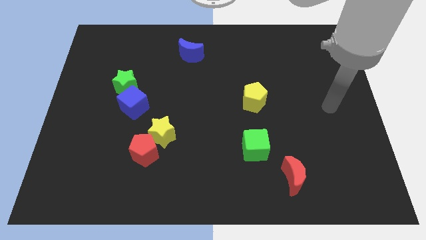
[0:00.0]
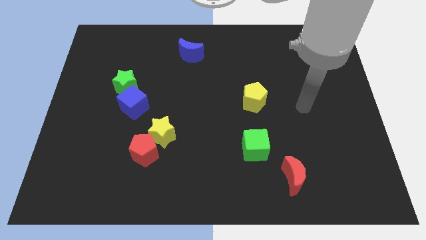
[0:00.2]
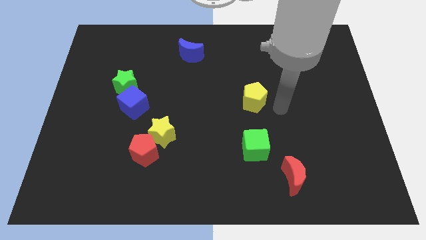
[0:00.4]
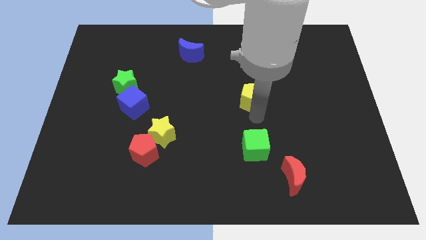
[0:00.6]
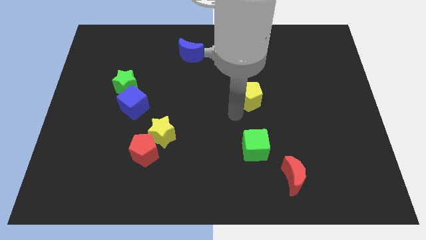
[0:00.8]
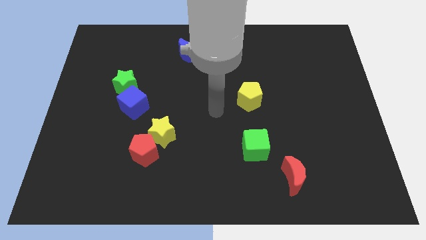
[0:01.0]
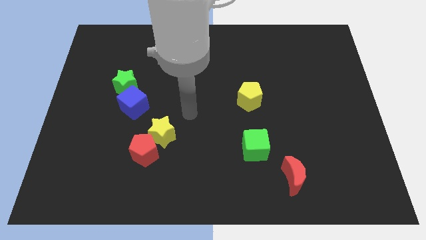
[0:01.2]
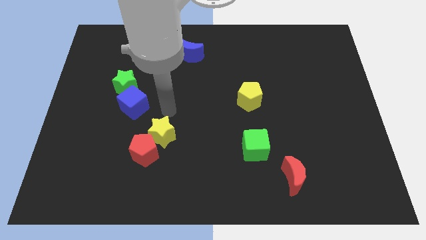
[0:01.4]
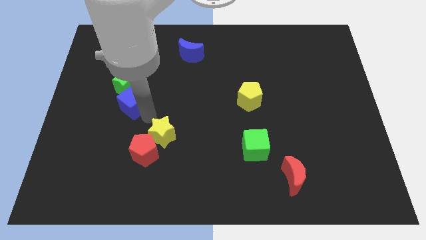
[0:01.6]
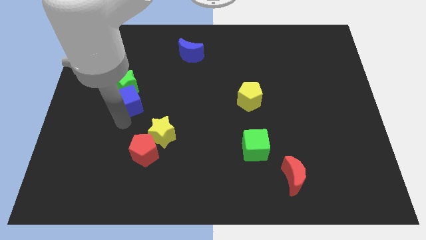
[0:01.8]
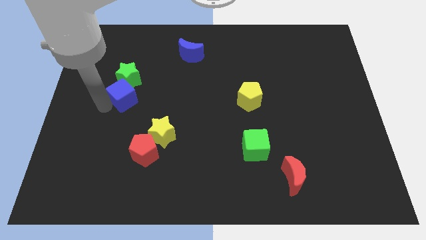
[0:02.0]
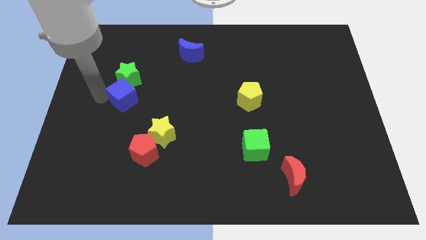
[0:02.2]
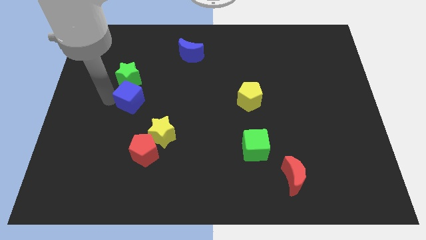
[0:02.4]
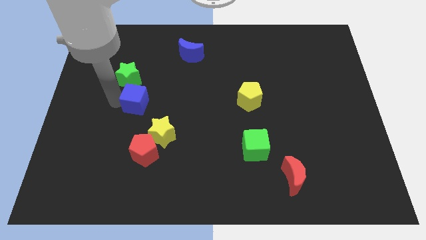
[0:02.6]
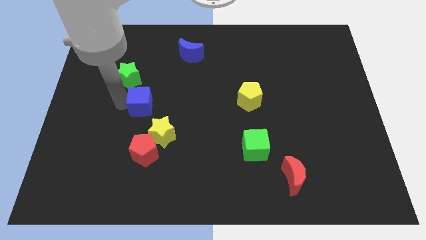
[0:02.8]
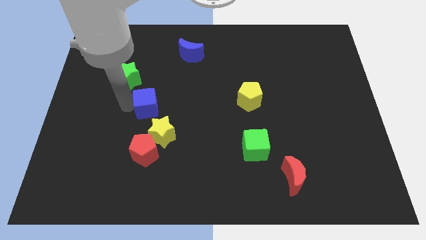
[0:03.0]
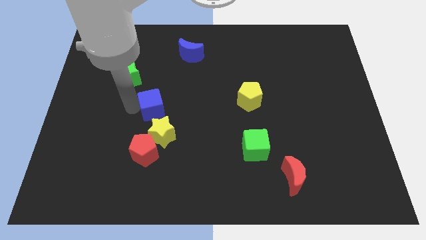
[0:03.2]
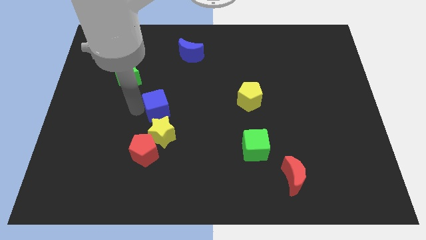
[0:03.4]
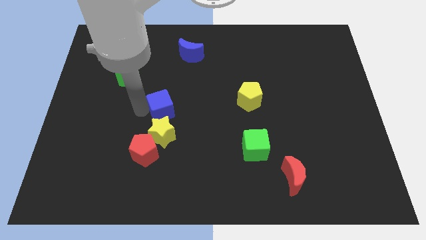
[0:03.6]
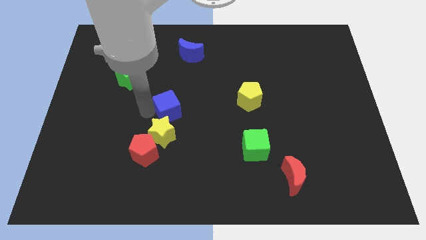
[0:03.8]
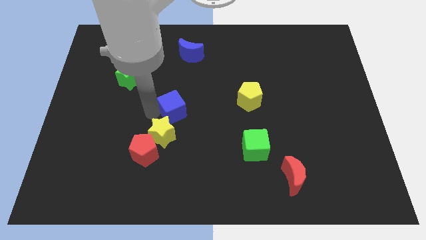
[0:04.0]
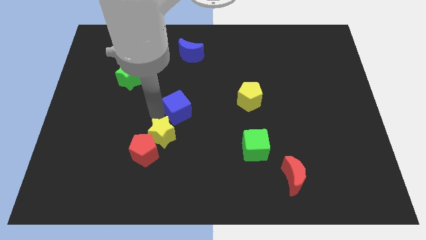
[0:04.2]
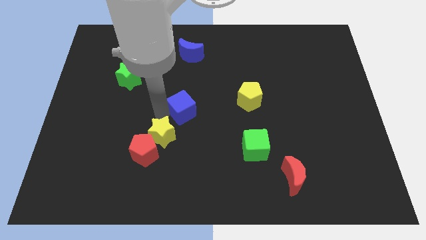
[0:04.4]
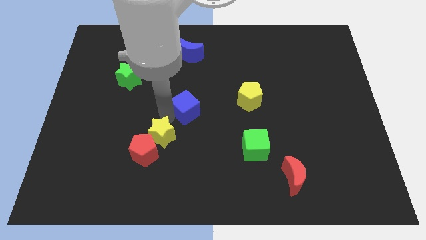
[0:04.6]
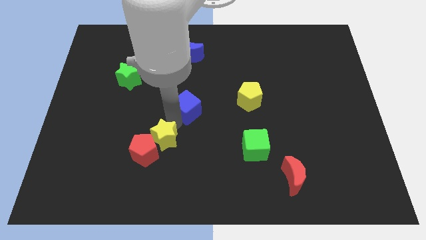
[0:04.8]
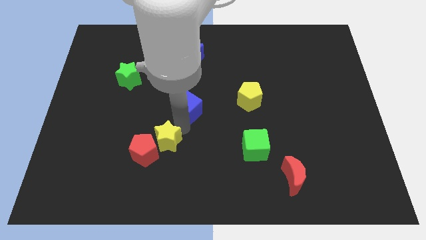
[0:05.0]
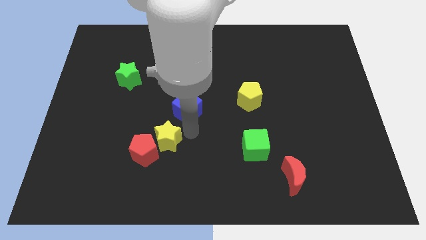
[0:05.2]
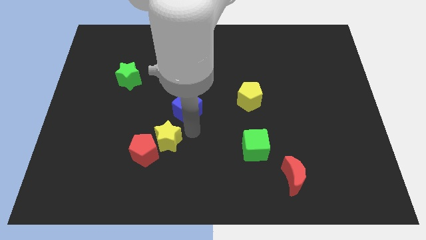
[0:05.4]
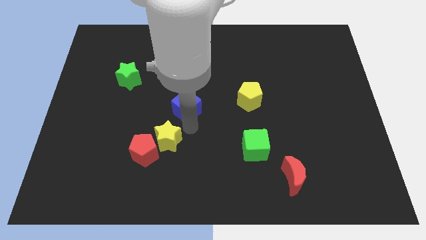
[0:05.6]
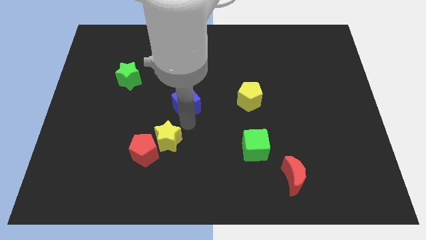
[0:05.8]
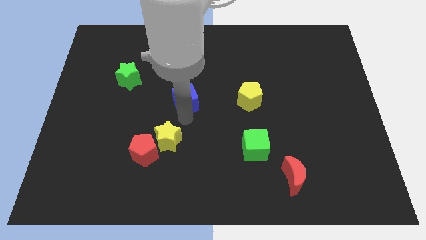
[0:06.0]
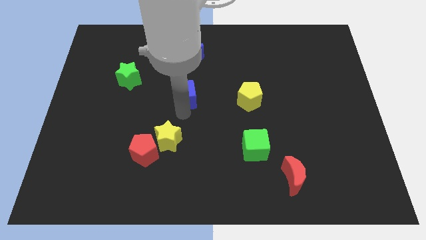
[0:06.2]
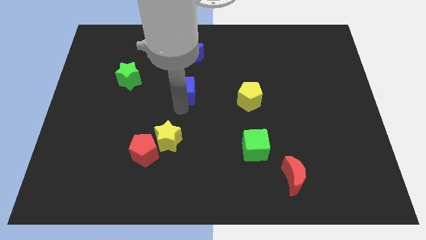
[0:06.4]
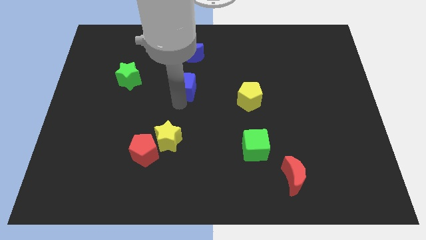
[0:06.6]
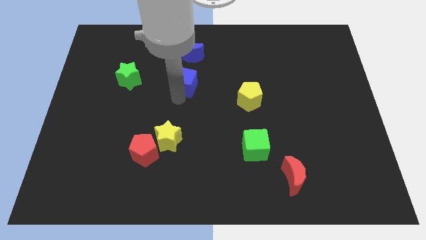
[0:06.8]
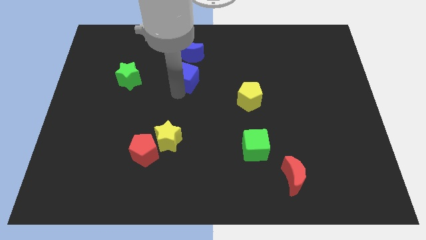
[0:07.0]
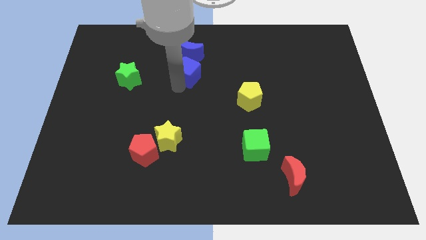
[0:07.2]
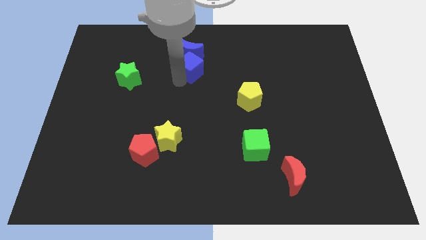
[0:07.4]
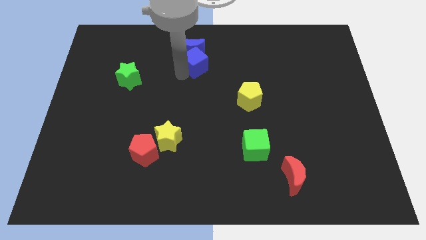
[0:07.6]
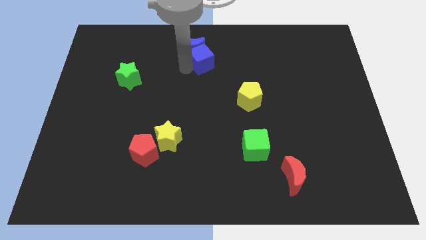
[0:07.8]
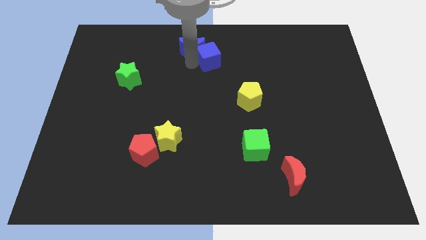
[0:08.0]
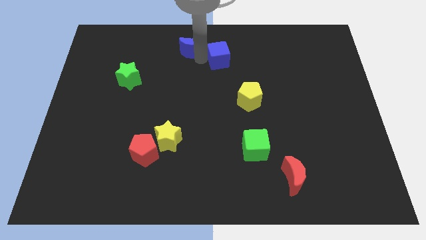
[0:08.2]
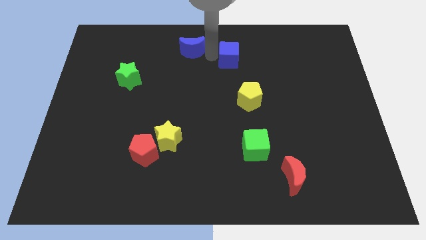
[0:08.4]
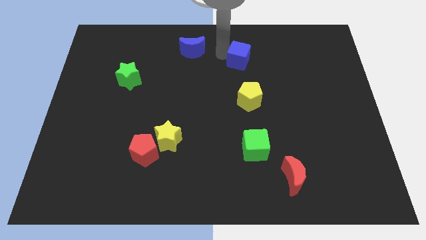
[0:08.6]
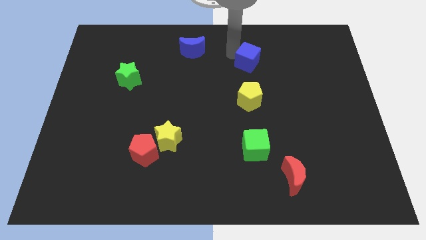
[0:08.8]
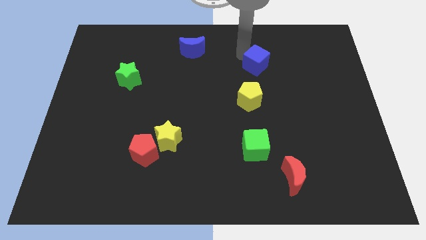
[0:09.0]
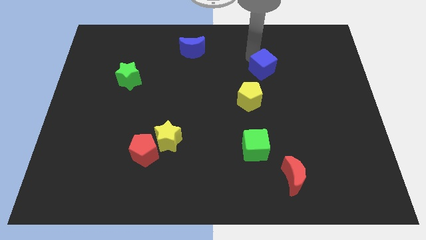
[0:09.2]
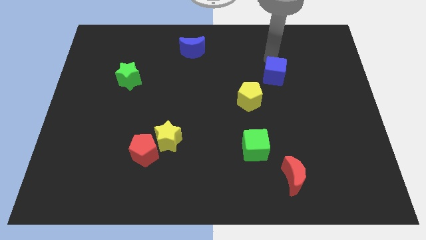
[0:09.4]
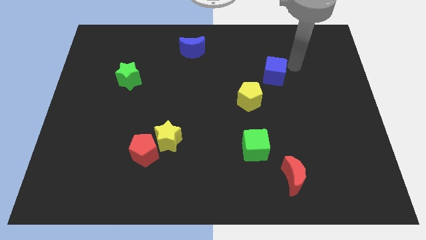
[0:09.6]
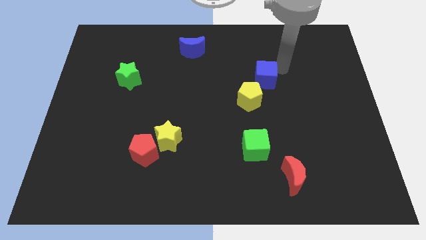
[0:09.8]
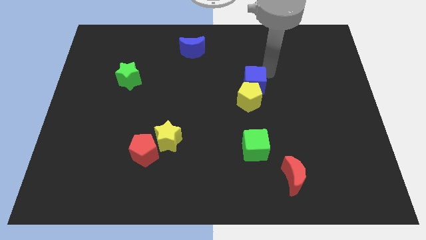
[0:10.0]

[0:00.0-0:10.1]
slide the blue cube towards the yellow pentagon

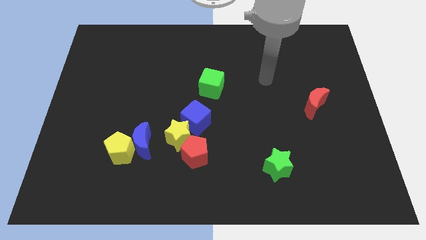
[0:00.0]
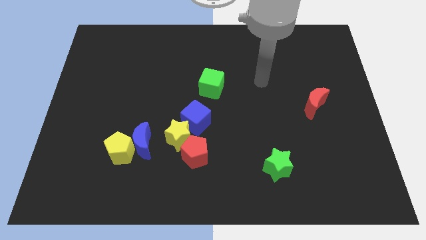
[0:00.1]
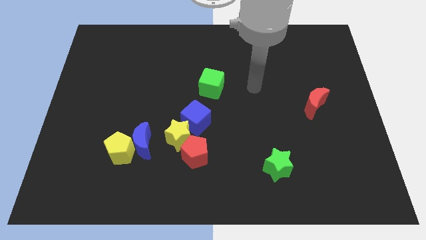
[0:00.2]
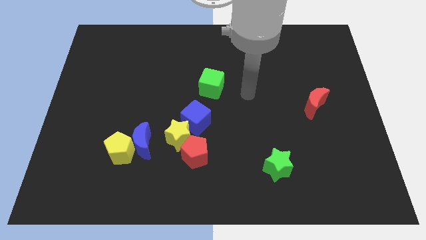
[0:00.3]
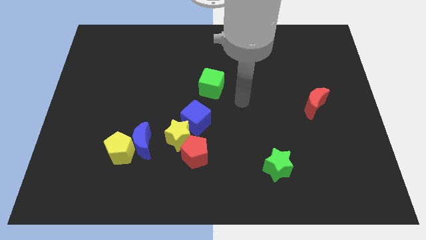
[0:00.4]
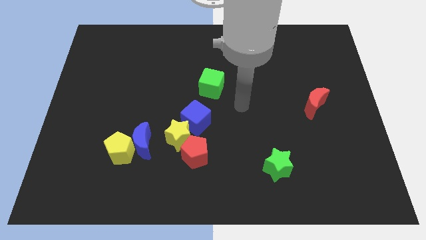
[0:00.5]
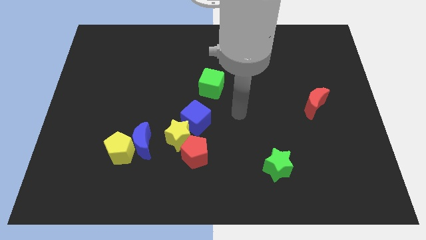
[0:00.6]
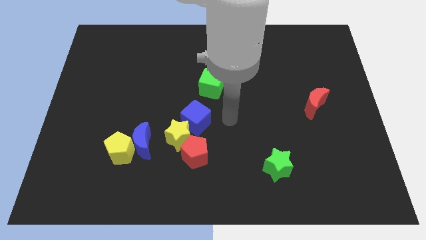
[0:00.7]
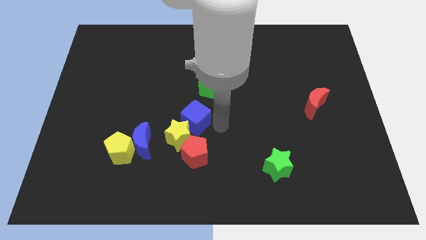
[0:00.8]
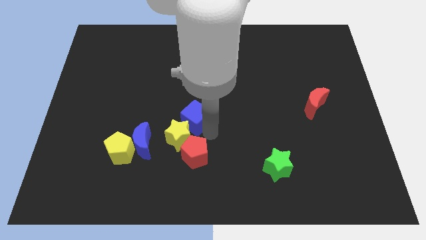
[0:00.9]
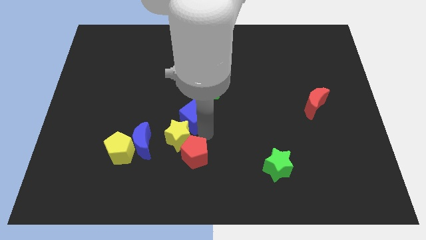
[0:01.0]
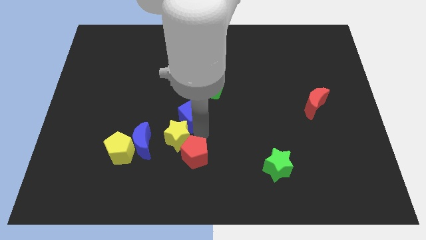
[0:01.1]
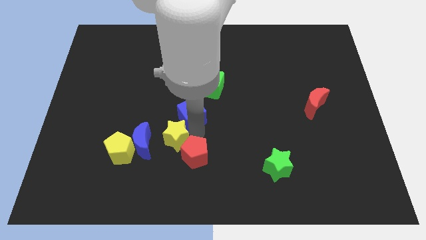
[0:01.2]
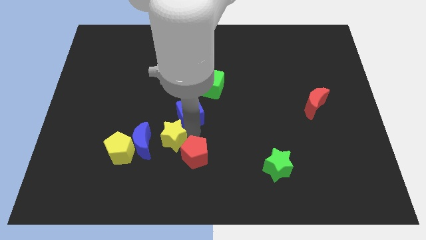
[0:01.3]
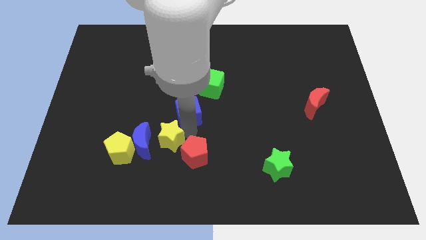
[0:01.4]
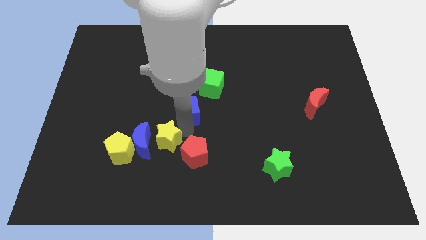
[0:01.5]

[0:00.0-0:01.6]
slide the yellow star to the blue moon

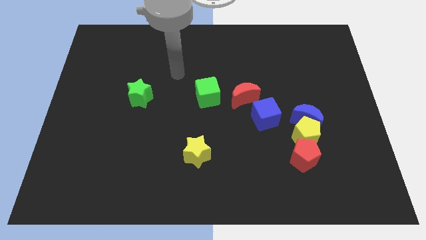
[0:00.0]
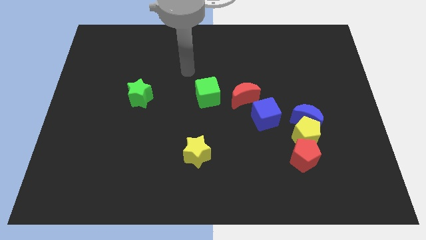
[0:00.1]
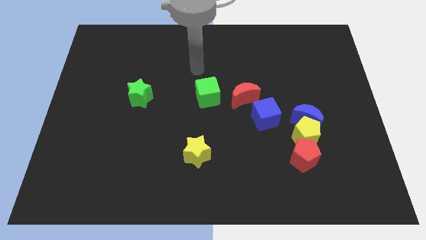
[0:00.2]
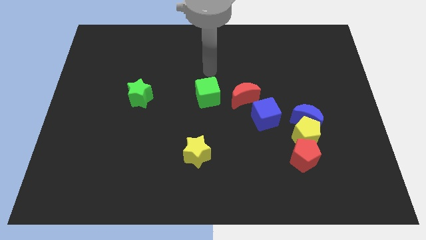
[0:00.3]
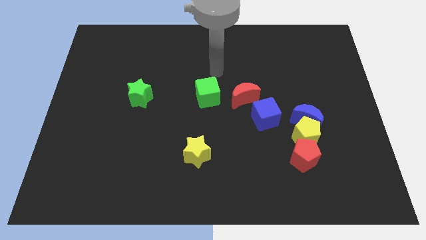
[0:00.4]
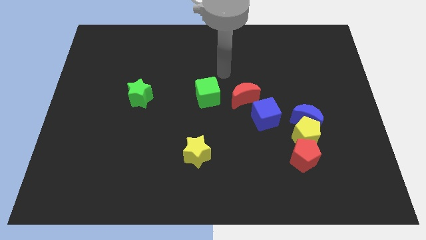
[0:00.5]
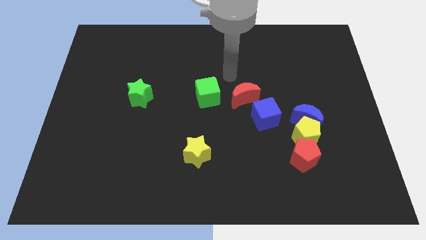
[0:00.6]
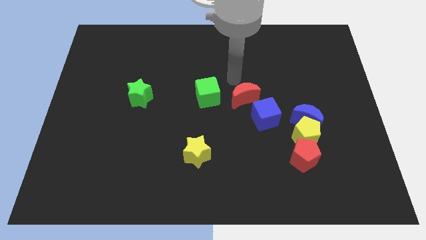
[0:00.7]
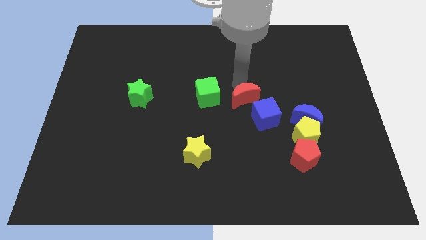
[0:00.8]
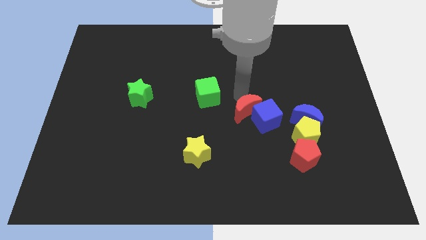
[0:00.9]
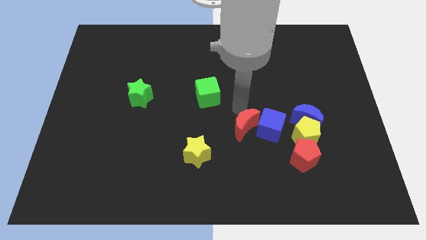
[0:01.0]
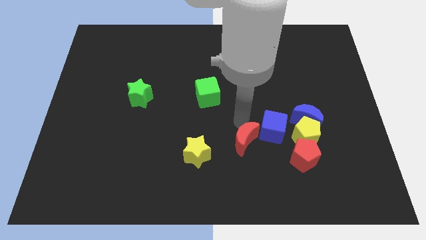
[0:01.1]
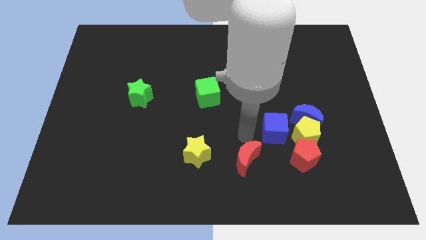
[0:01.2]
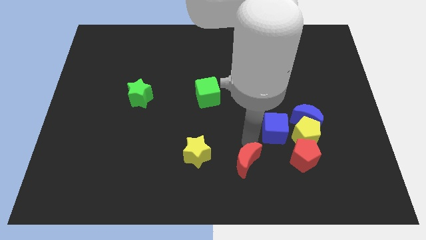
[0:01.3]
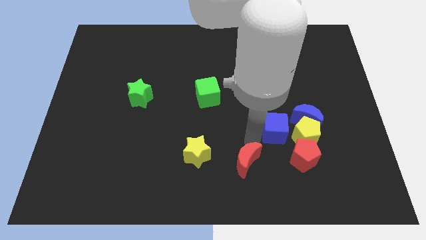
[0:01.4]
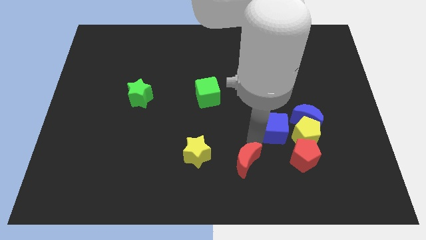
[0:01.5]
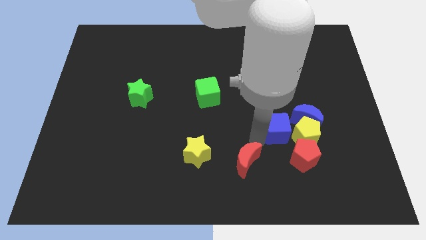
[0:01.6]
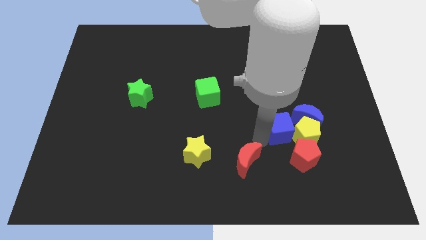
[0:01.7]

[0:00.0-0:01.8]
put the blue cube close to the yellow pentagon
